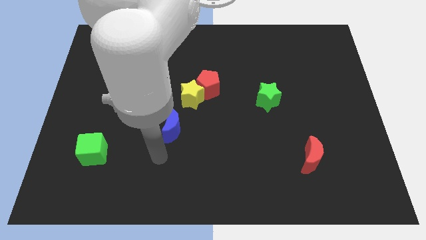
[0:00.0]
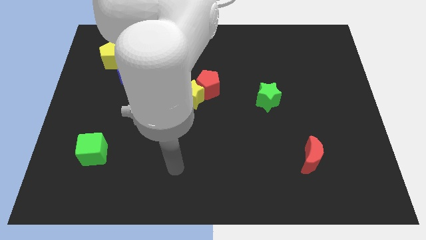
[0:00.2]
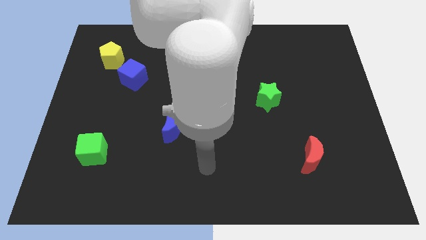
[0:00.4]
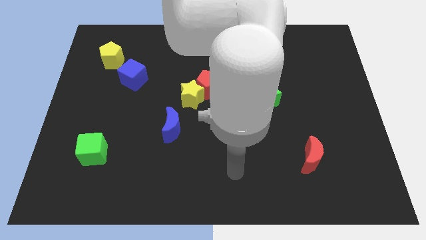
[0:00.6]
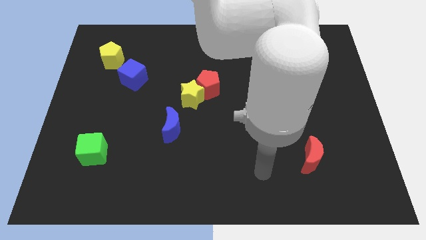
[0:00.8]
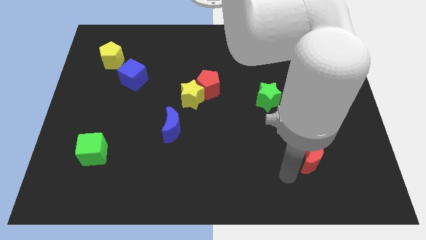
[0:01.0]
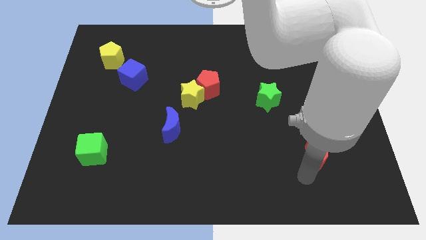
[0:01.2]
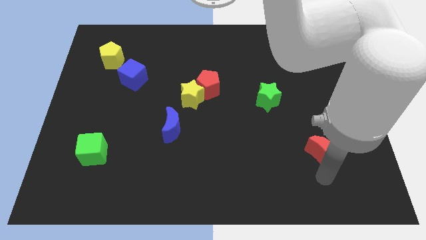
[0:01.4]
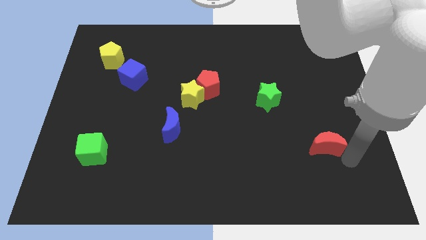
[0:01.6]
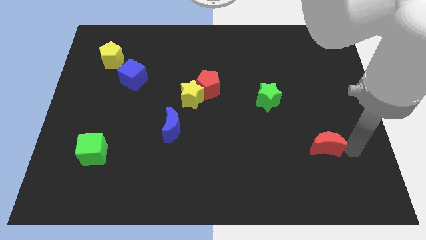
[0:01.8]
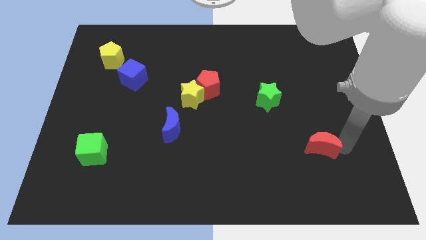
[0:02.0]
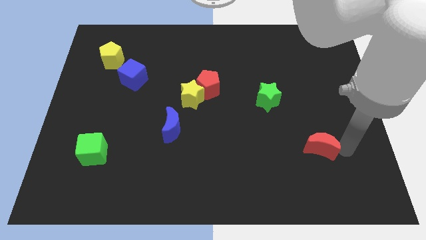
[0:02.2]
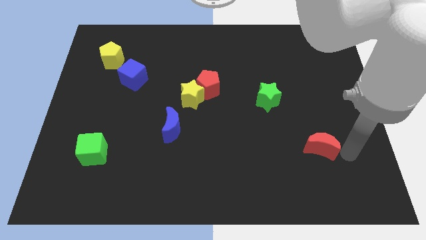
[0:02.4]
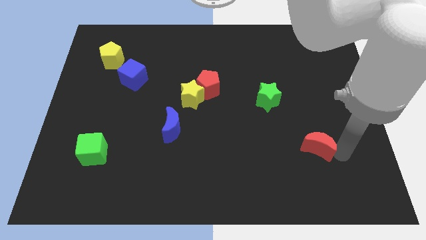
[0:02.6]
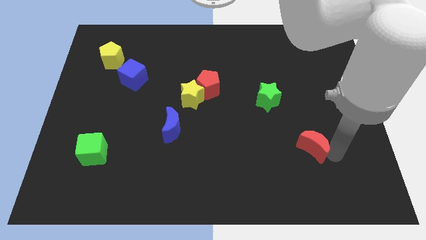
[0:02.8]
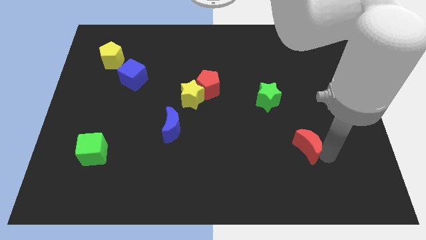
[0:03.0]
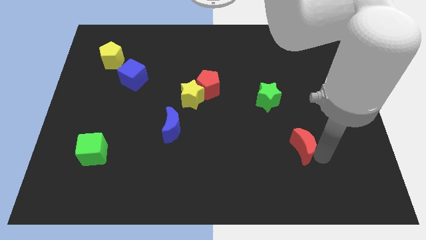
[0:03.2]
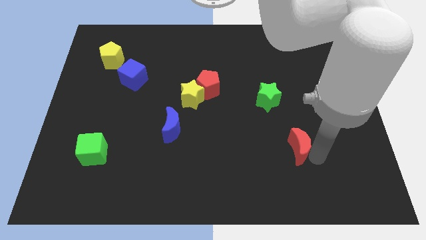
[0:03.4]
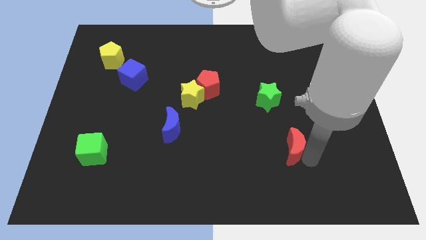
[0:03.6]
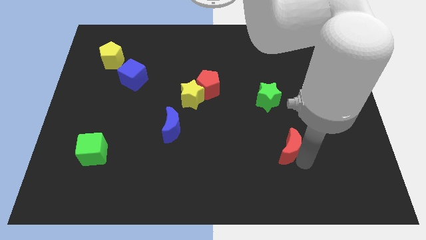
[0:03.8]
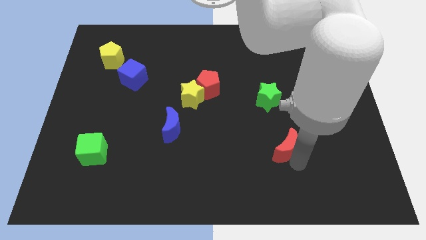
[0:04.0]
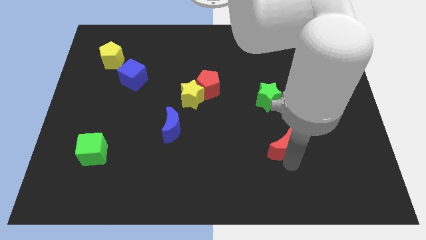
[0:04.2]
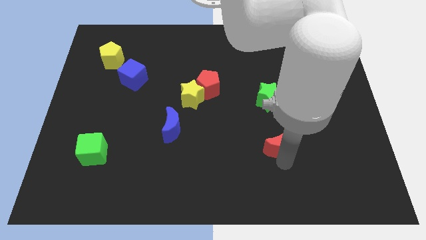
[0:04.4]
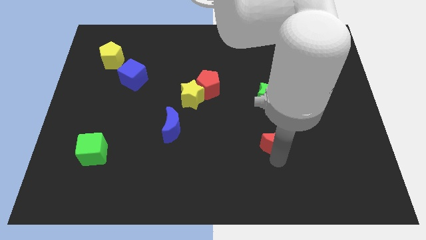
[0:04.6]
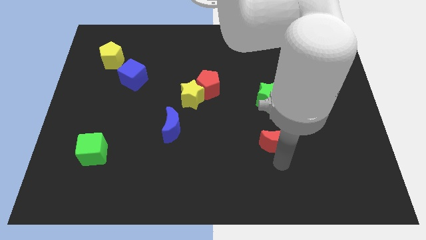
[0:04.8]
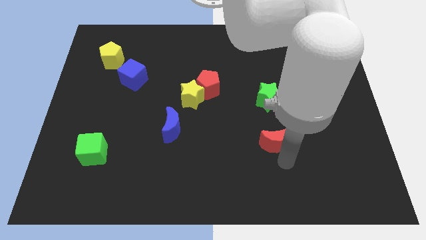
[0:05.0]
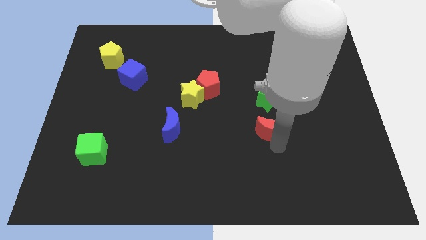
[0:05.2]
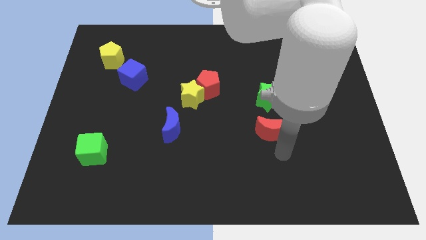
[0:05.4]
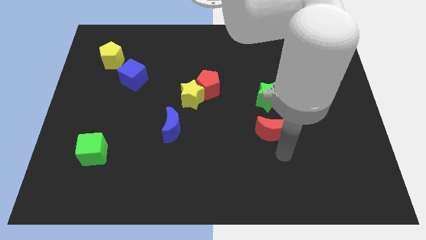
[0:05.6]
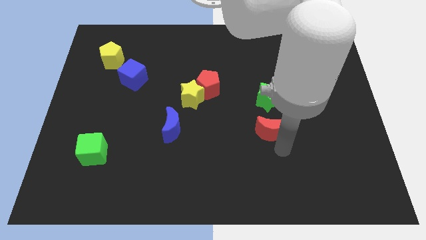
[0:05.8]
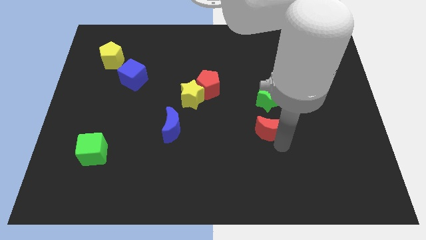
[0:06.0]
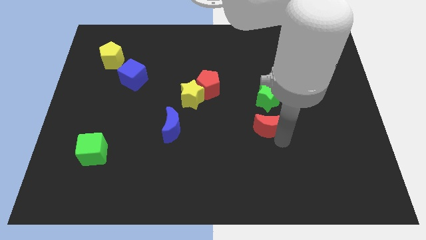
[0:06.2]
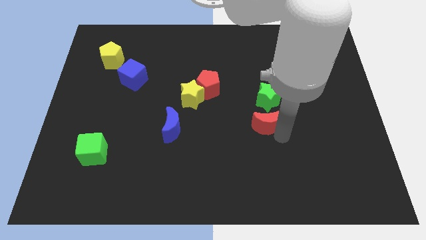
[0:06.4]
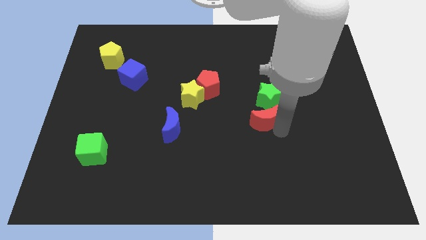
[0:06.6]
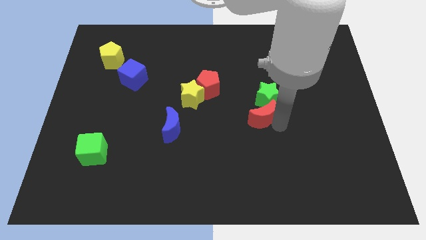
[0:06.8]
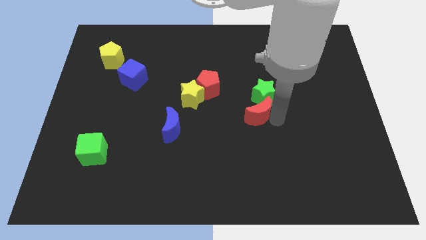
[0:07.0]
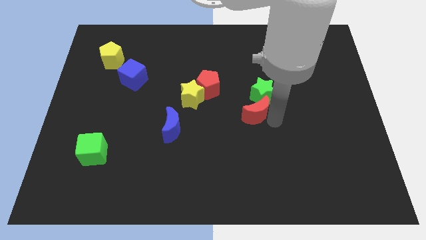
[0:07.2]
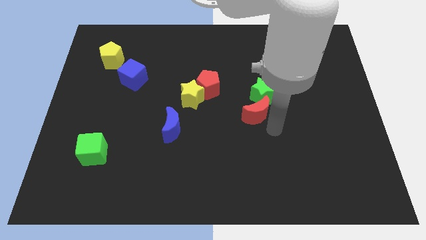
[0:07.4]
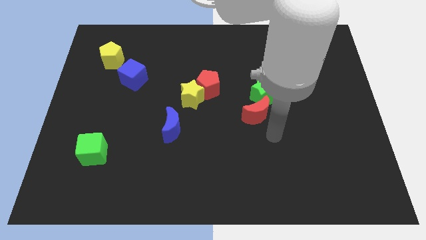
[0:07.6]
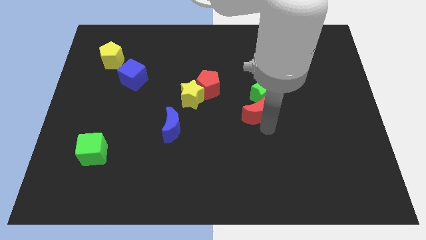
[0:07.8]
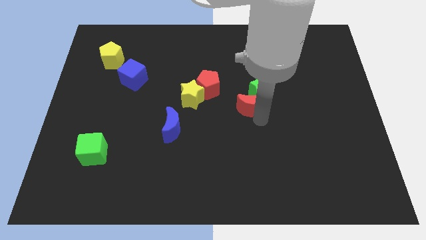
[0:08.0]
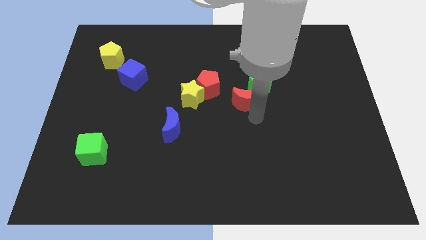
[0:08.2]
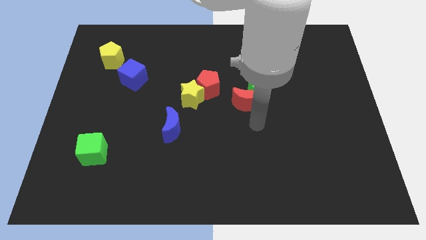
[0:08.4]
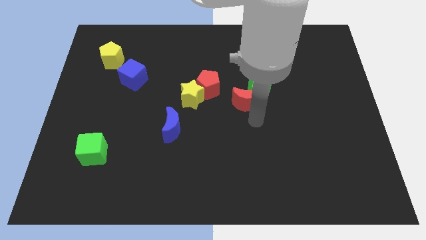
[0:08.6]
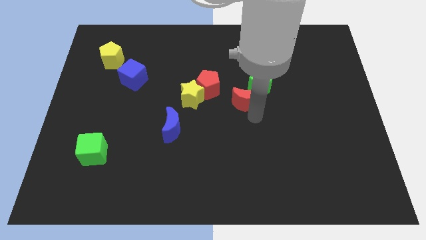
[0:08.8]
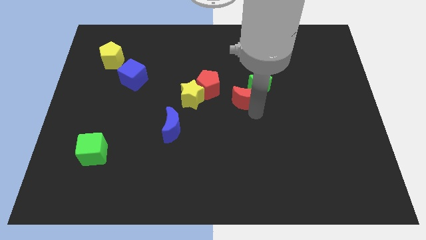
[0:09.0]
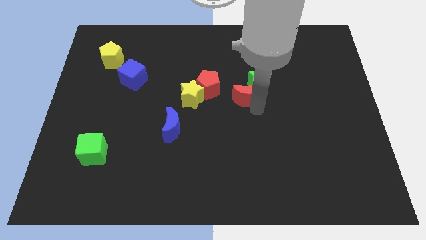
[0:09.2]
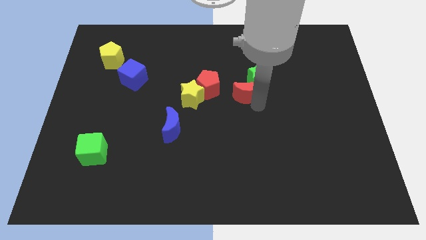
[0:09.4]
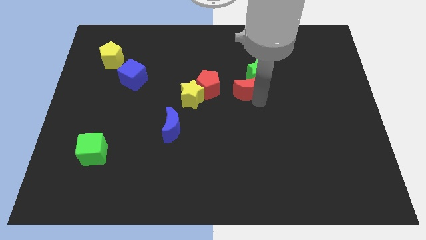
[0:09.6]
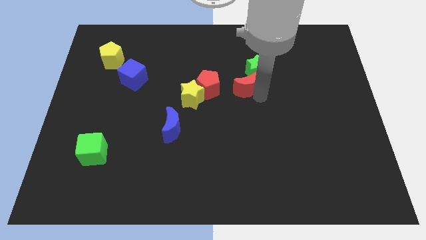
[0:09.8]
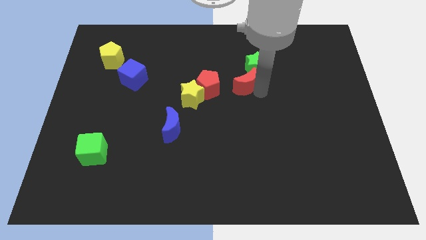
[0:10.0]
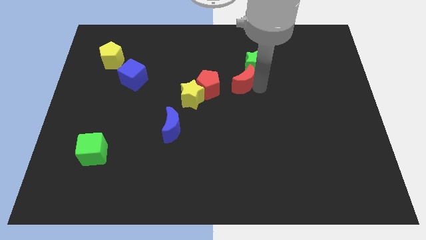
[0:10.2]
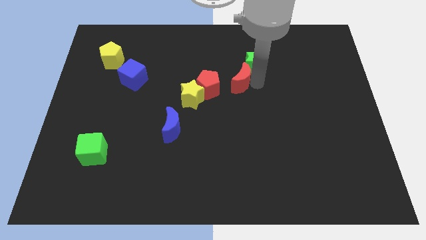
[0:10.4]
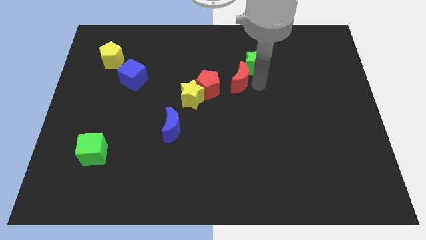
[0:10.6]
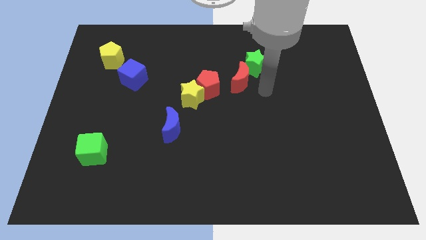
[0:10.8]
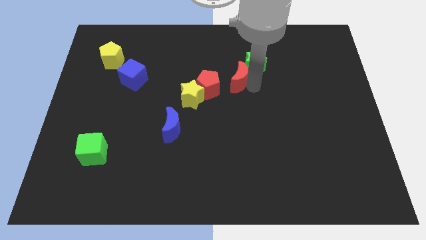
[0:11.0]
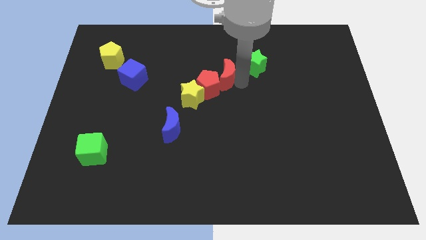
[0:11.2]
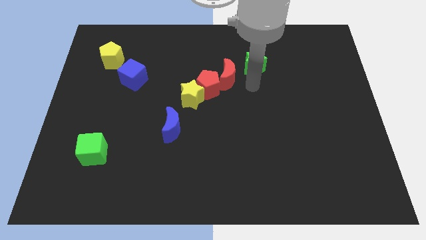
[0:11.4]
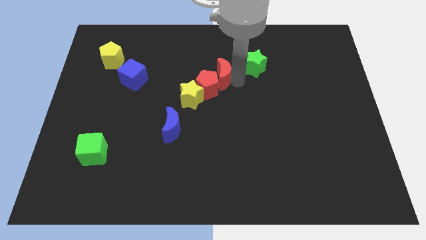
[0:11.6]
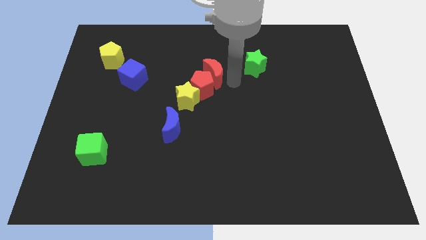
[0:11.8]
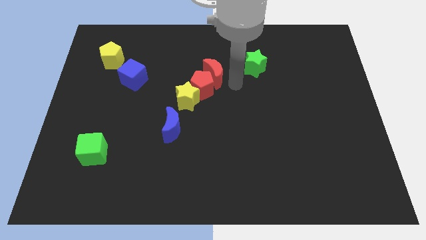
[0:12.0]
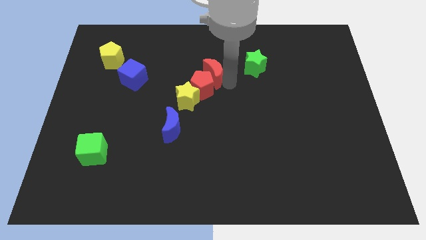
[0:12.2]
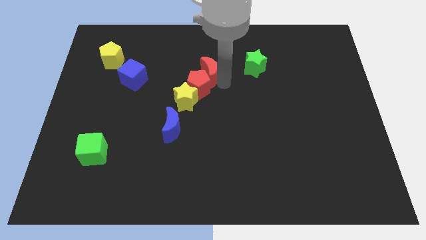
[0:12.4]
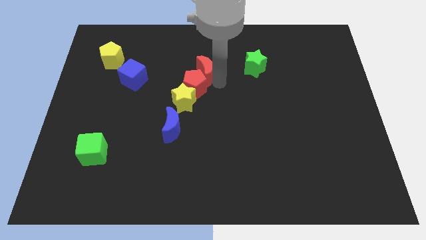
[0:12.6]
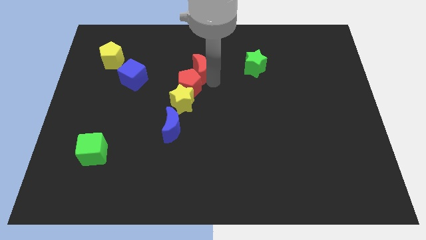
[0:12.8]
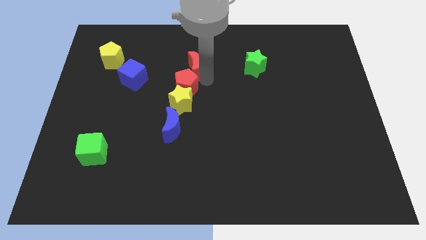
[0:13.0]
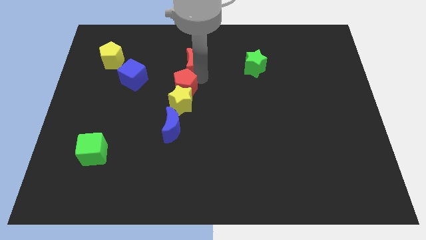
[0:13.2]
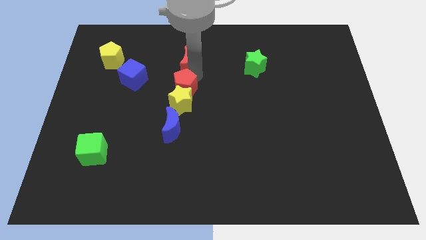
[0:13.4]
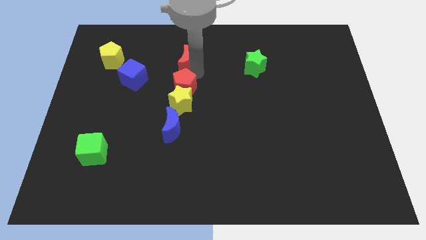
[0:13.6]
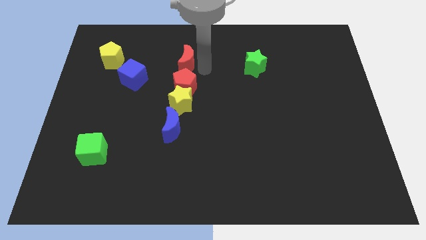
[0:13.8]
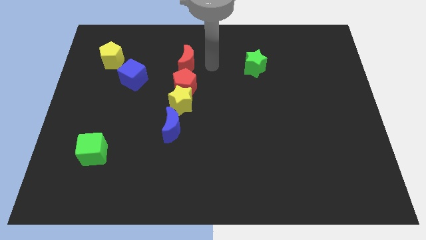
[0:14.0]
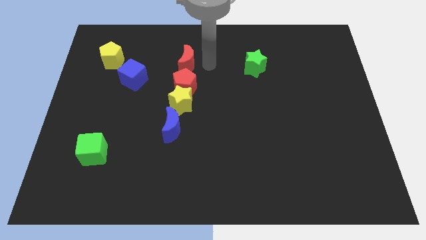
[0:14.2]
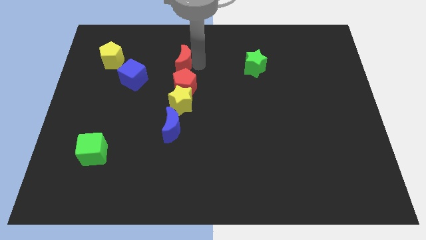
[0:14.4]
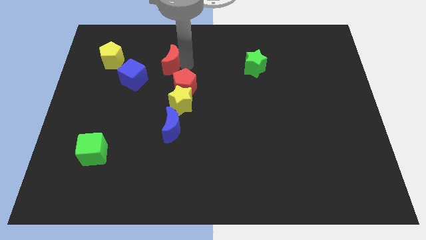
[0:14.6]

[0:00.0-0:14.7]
move the red moon to the right of the yellow pentagon

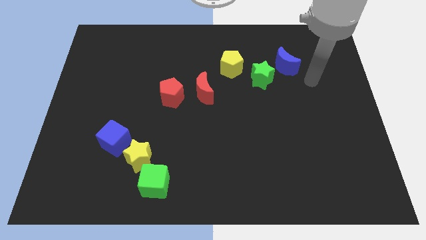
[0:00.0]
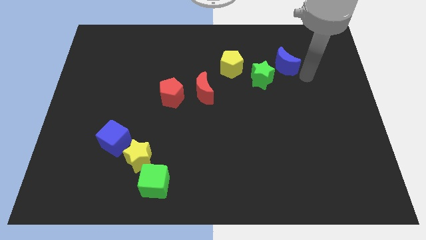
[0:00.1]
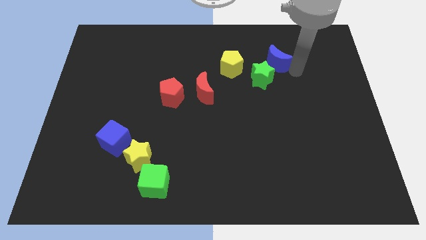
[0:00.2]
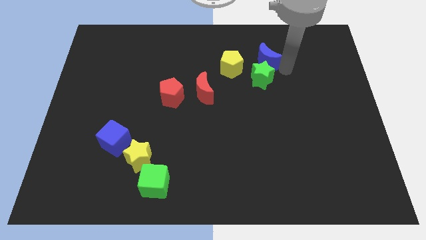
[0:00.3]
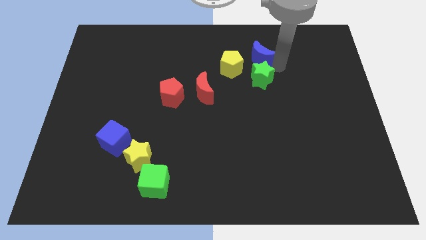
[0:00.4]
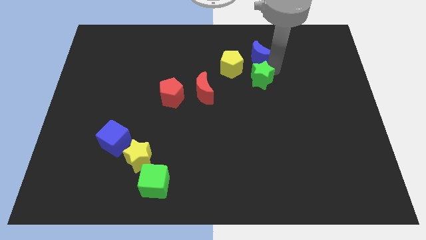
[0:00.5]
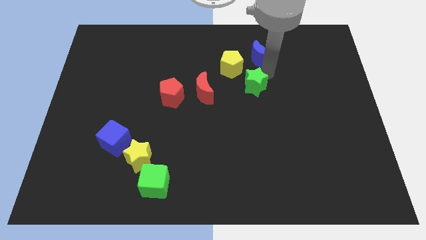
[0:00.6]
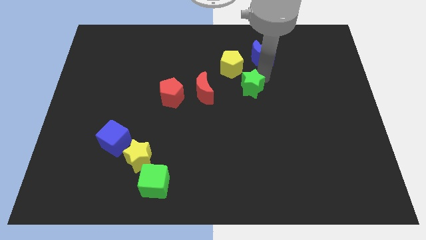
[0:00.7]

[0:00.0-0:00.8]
push the green star to the bottom side of the yellow pentagon
